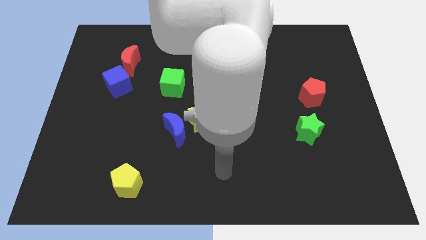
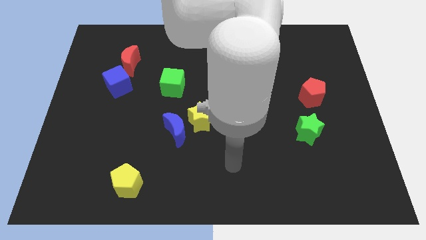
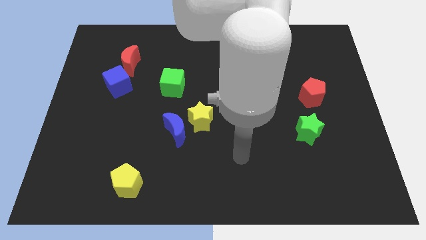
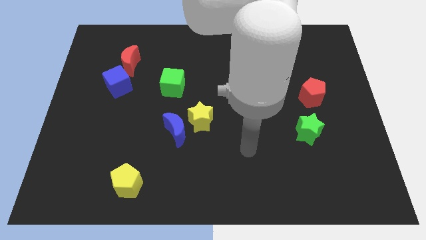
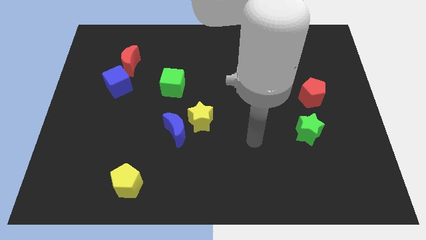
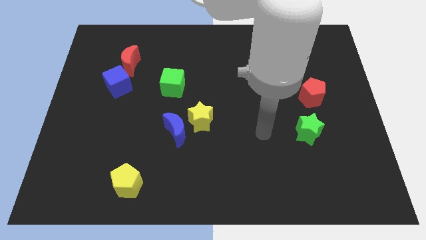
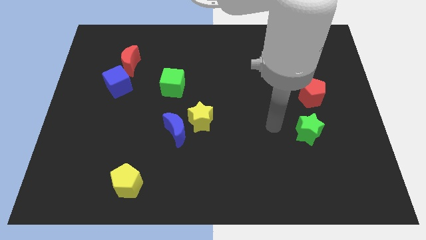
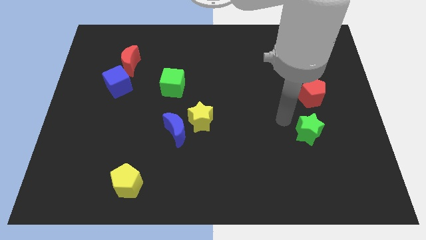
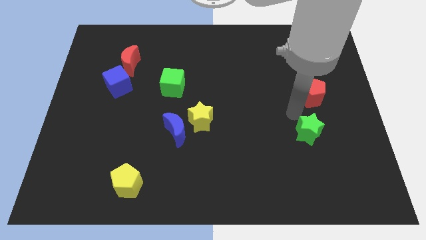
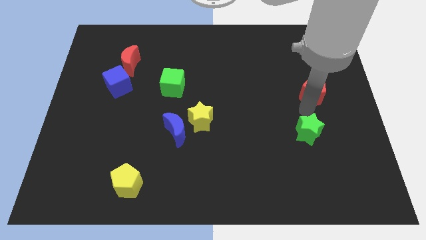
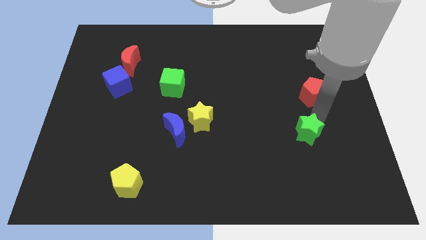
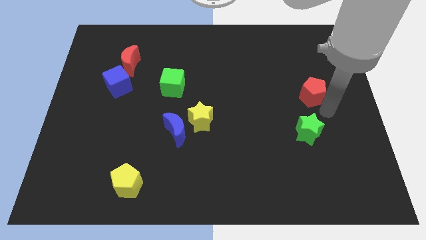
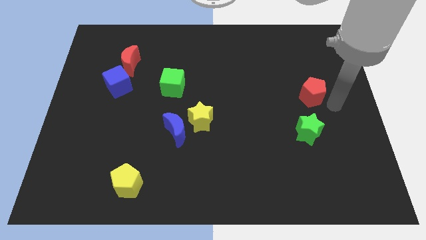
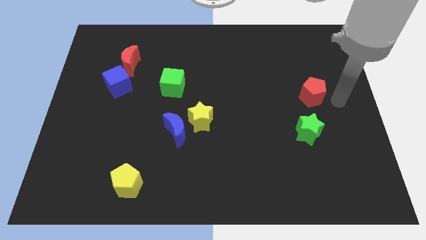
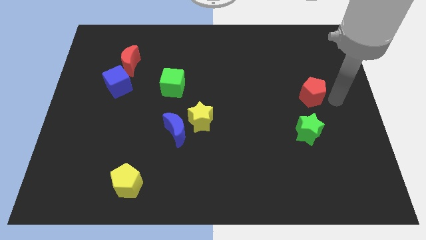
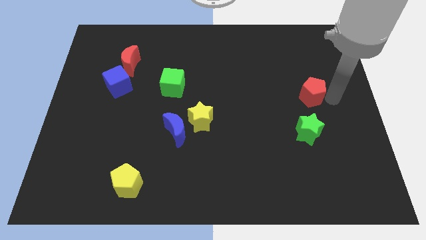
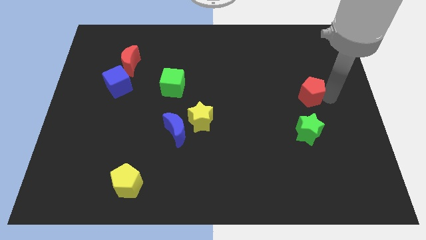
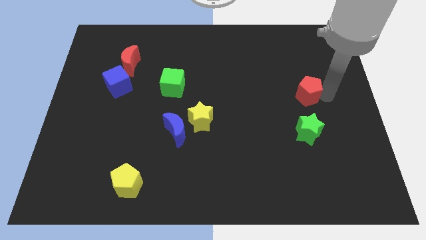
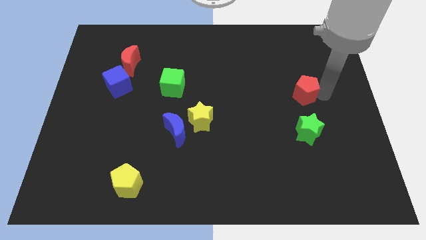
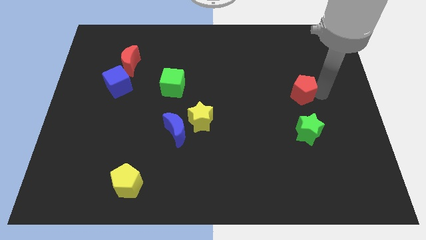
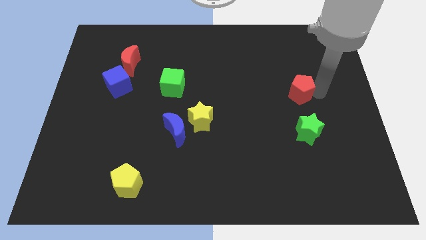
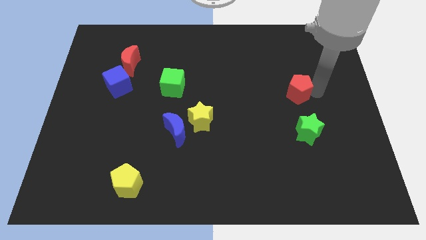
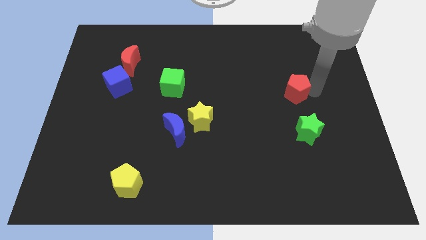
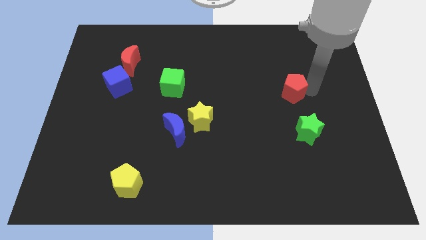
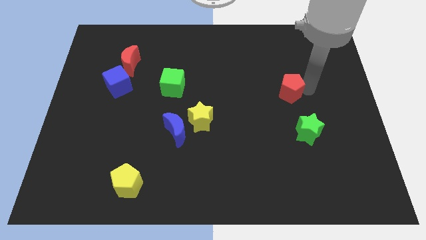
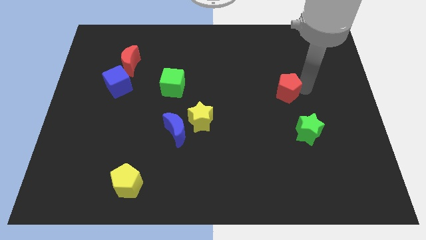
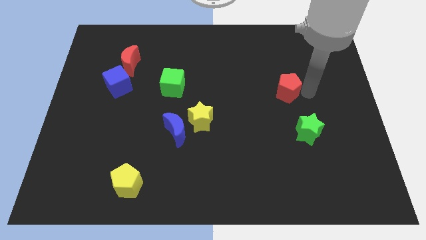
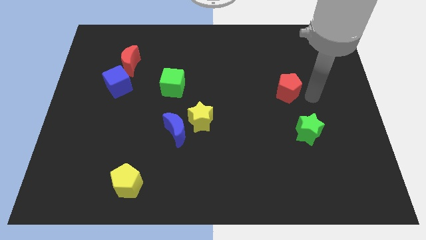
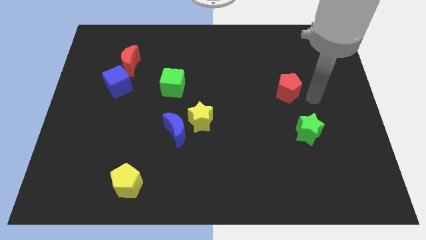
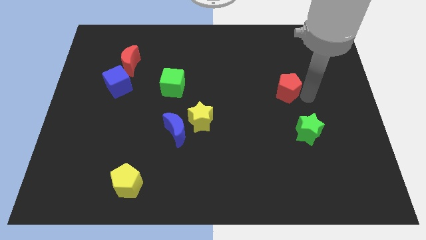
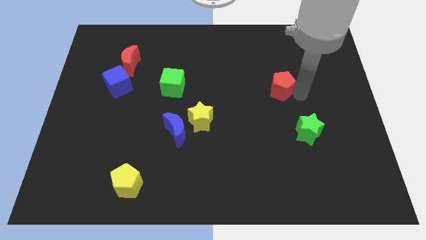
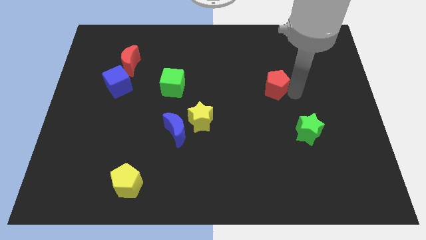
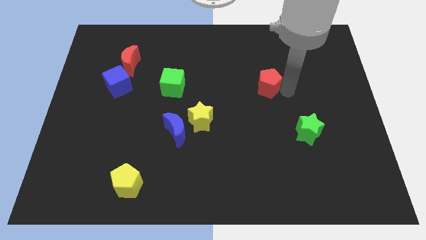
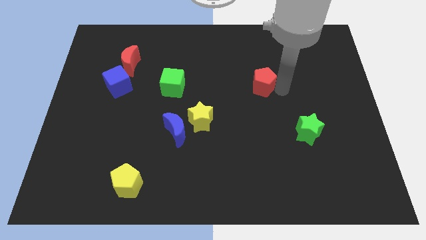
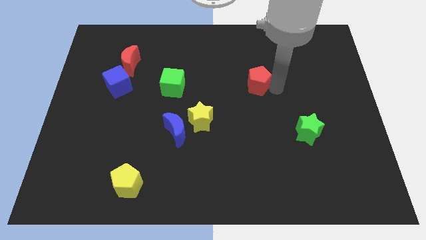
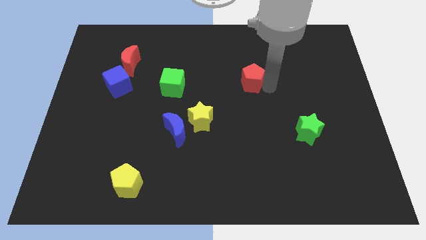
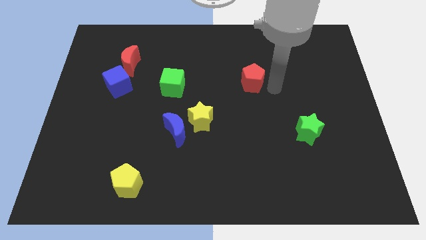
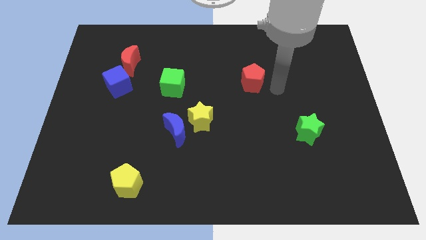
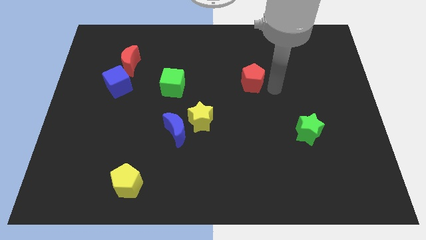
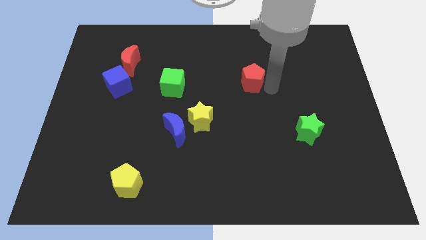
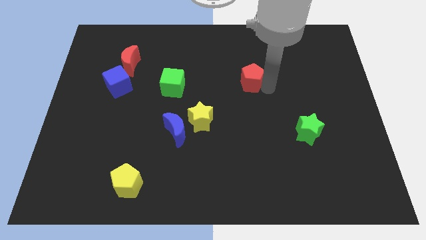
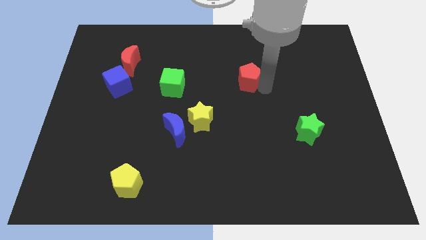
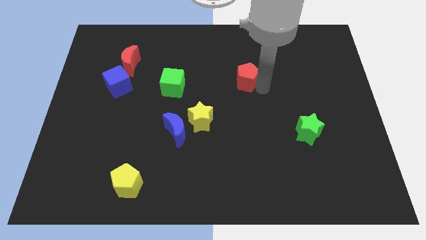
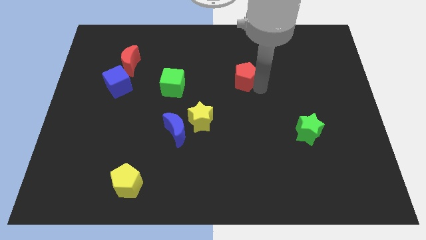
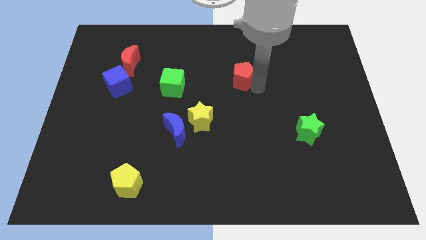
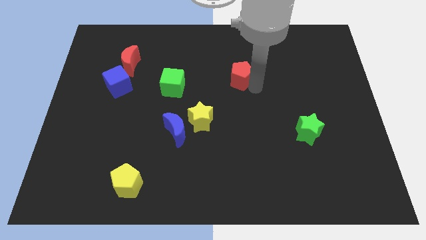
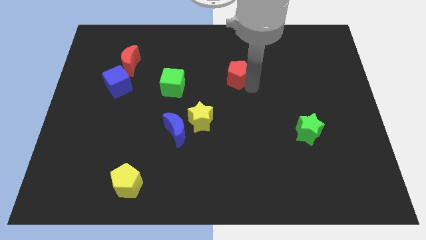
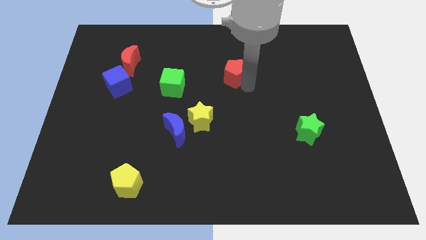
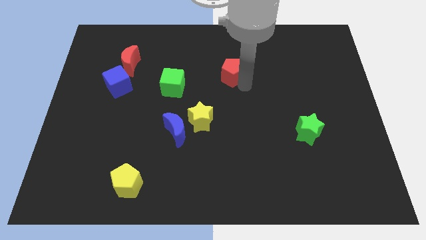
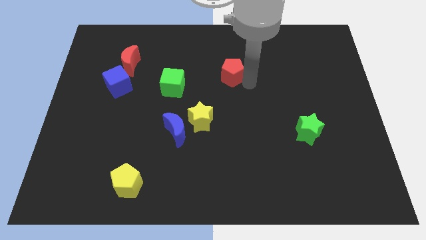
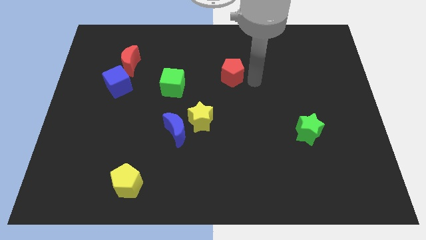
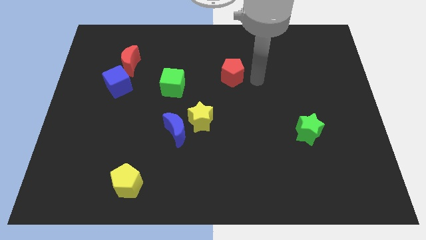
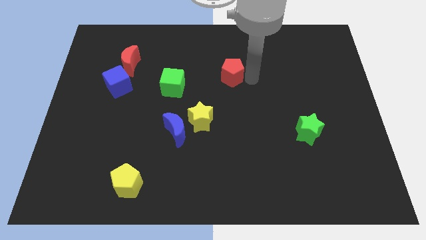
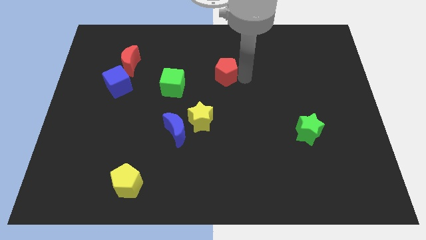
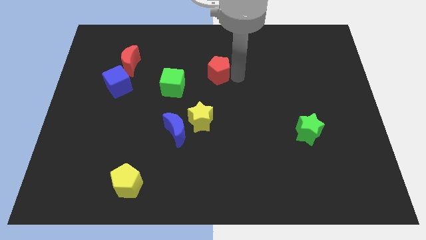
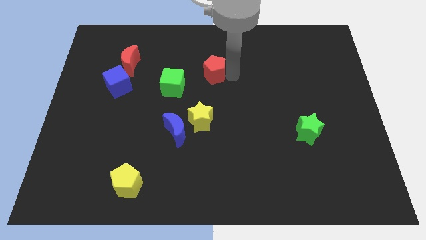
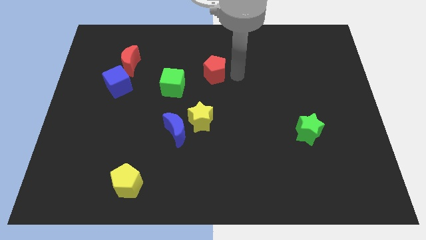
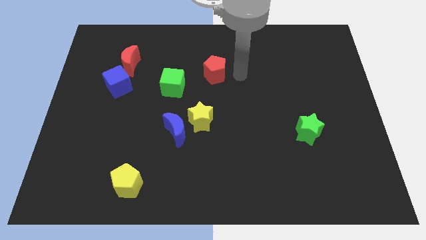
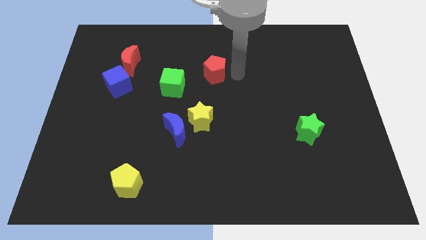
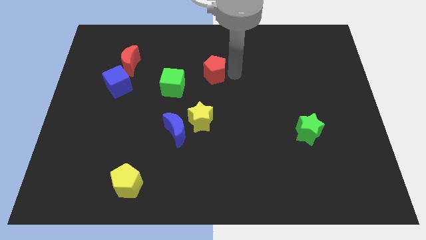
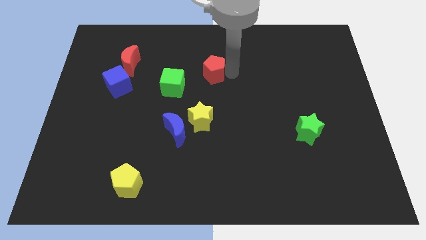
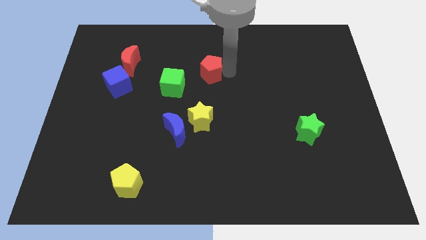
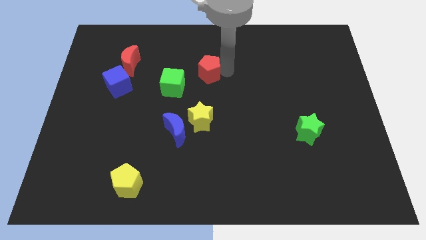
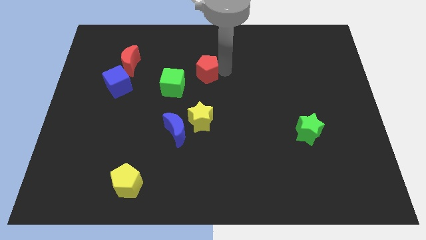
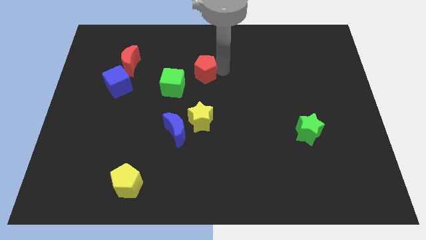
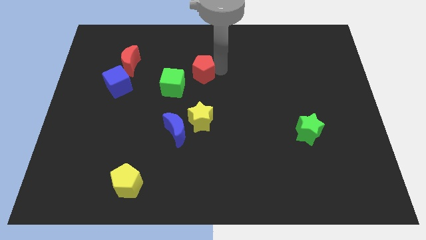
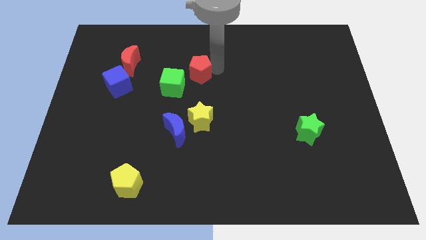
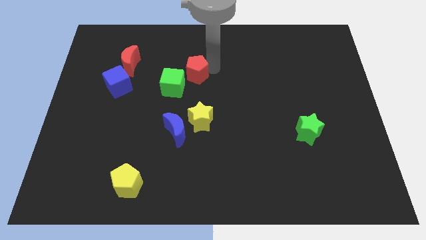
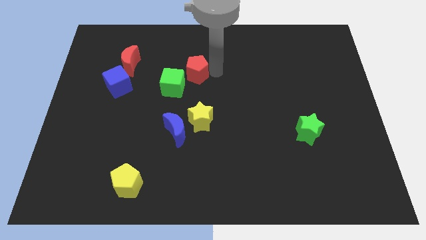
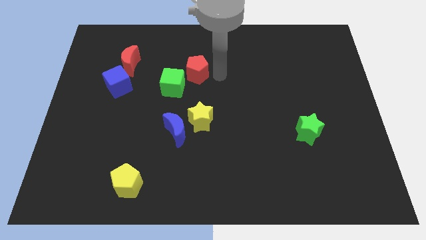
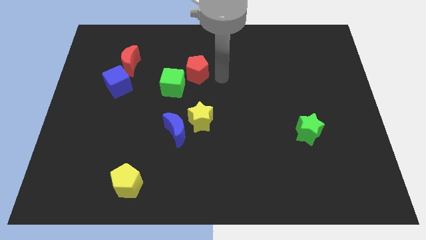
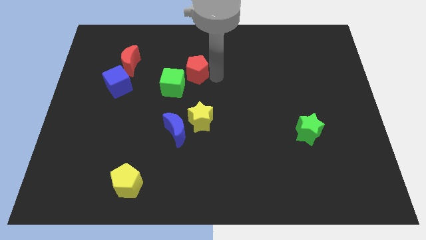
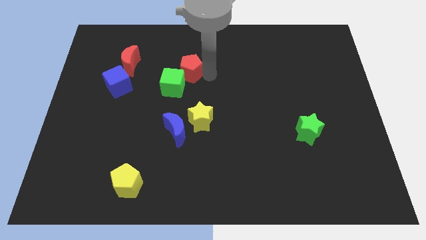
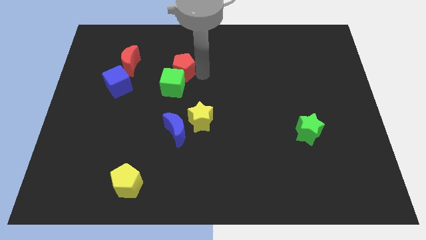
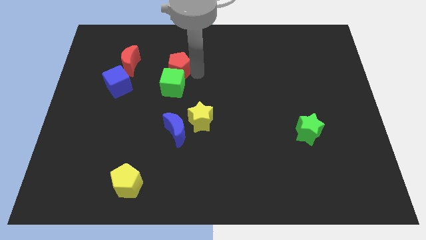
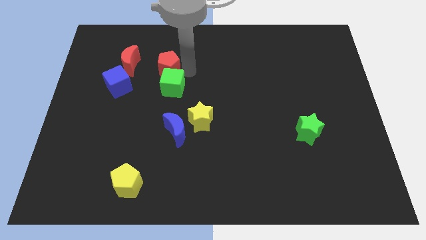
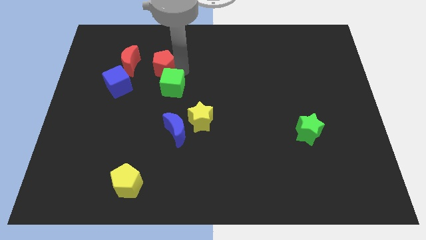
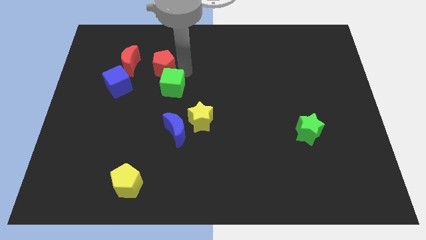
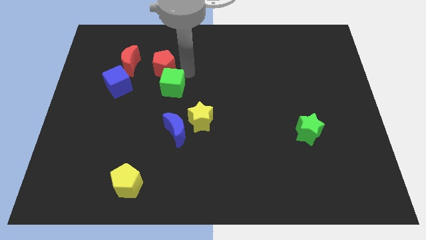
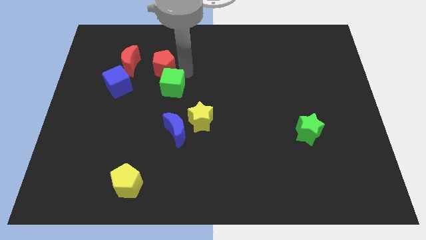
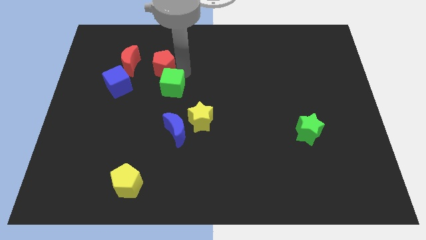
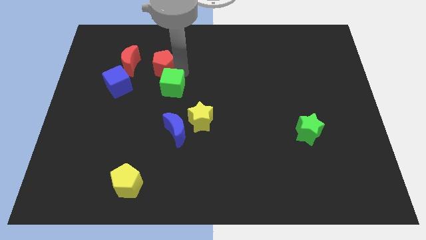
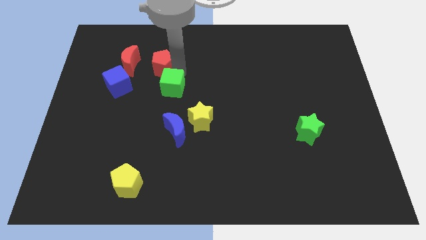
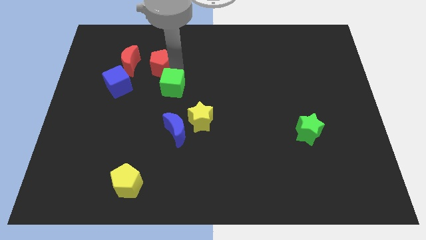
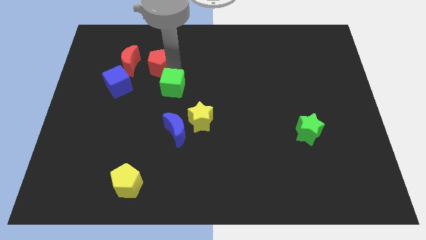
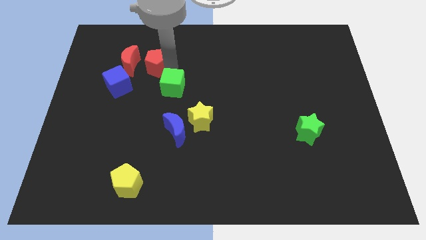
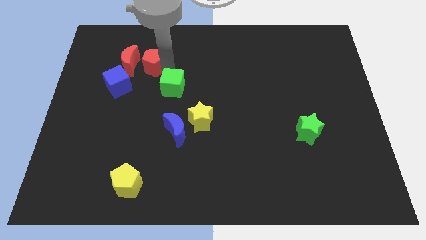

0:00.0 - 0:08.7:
push the red pentagon next to the red moon
